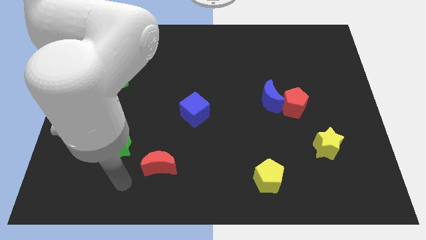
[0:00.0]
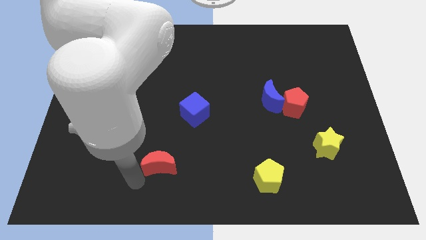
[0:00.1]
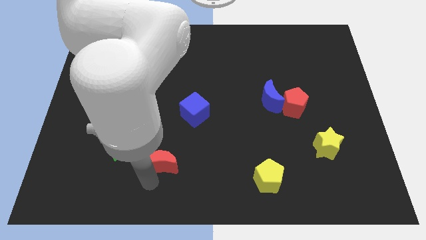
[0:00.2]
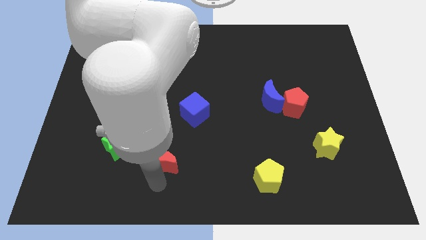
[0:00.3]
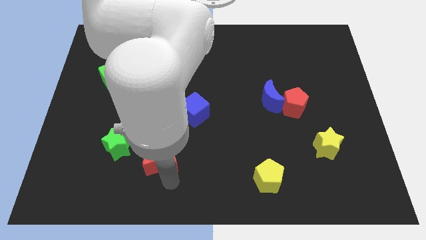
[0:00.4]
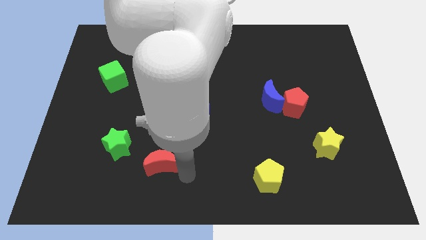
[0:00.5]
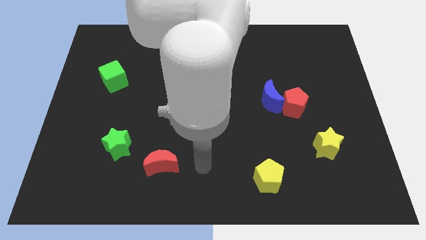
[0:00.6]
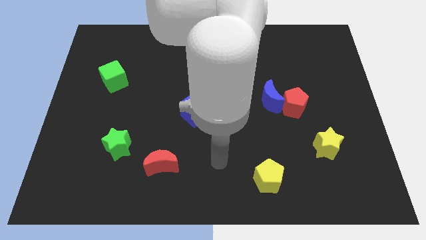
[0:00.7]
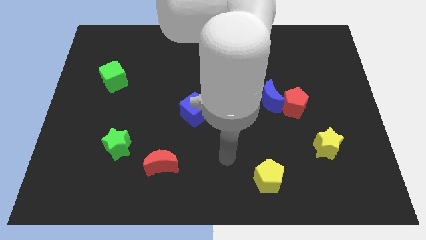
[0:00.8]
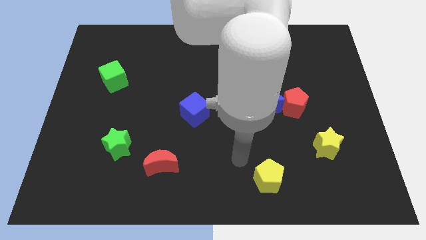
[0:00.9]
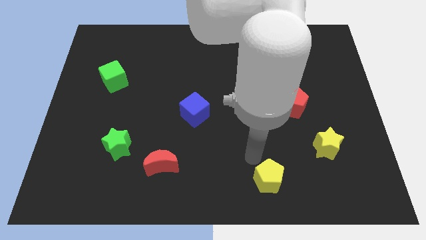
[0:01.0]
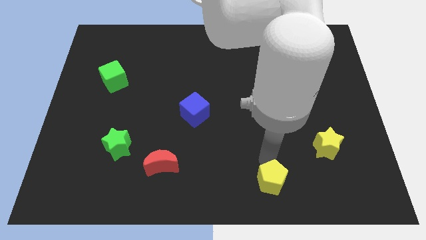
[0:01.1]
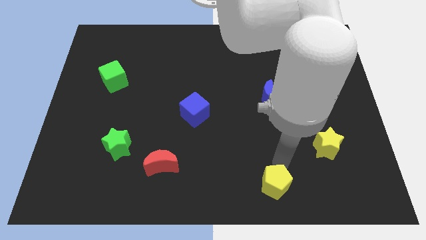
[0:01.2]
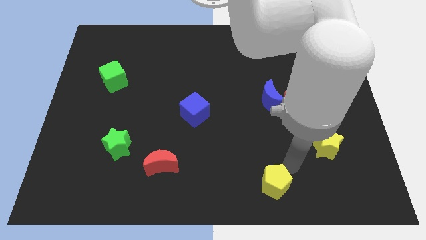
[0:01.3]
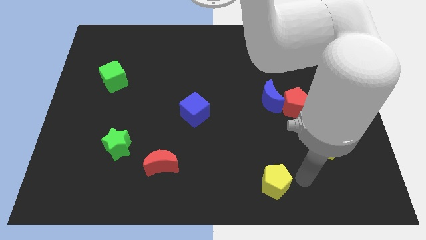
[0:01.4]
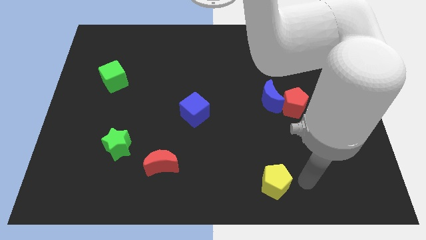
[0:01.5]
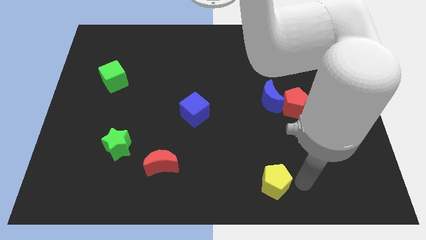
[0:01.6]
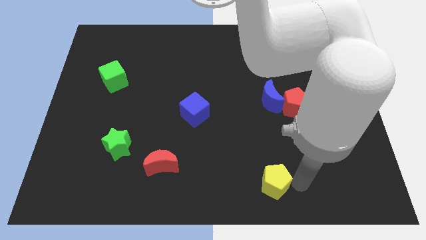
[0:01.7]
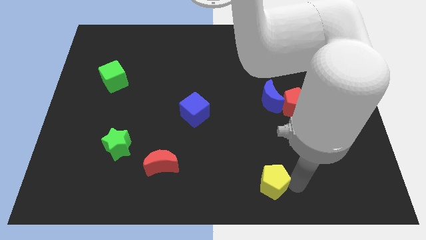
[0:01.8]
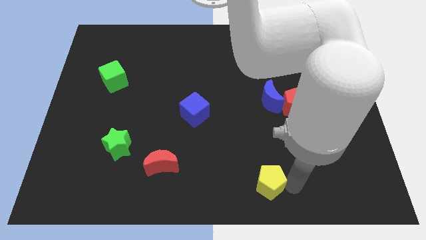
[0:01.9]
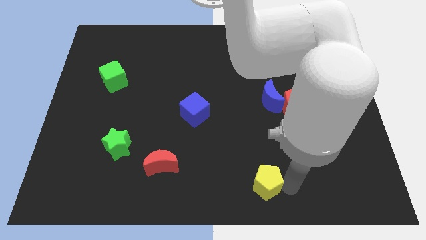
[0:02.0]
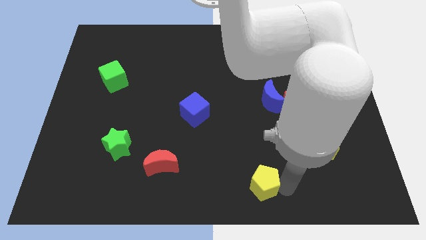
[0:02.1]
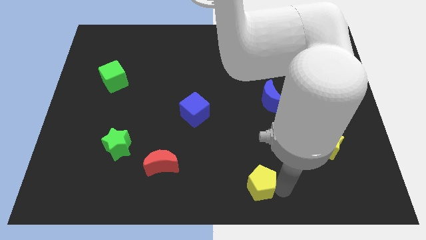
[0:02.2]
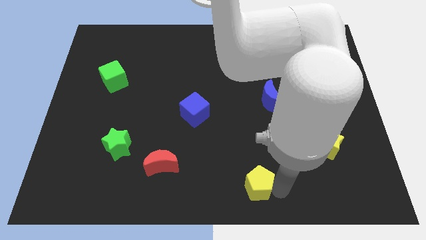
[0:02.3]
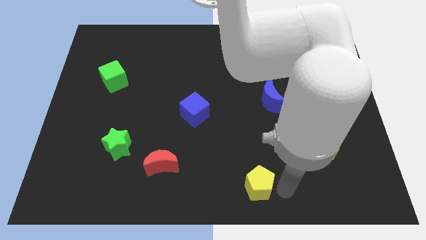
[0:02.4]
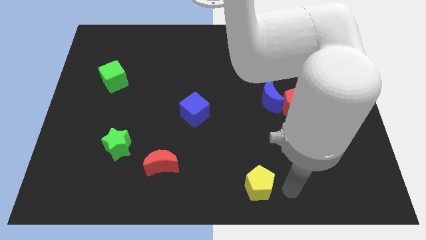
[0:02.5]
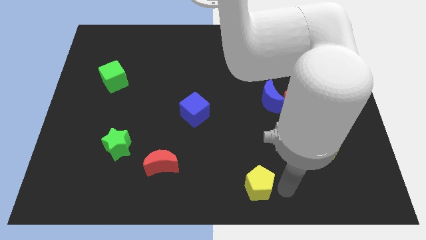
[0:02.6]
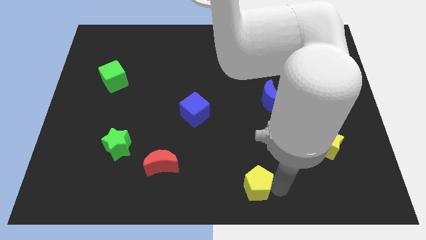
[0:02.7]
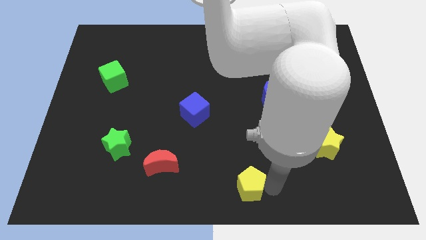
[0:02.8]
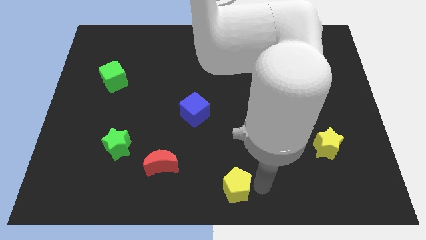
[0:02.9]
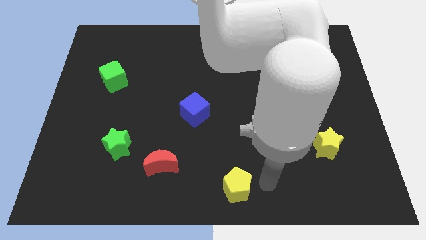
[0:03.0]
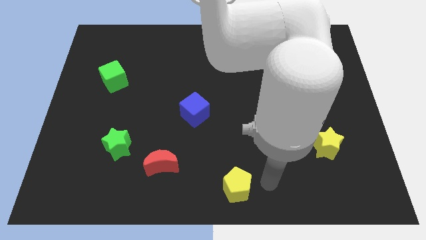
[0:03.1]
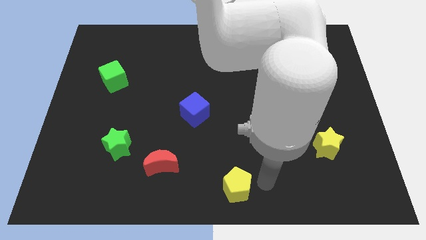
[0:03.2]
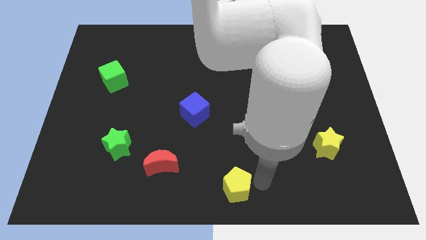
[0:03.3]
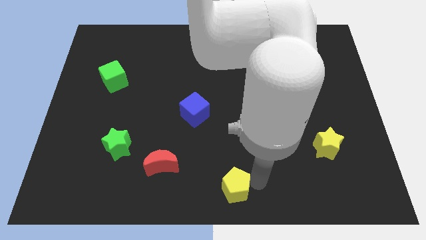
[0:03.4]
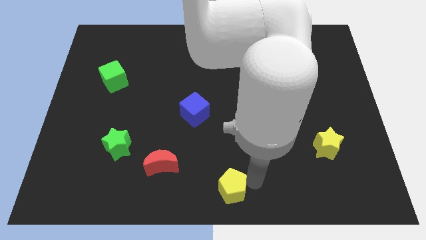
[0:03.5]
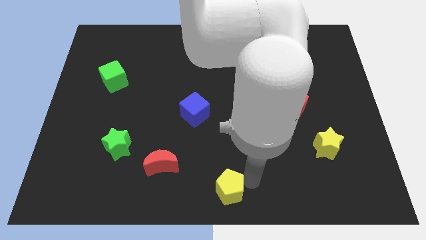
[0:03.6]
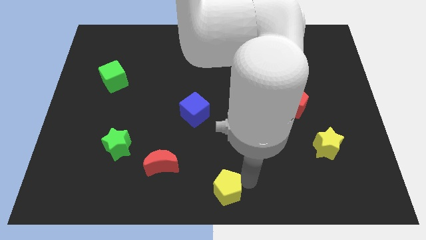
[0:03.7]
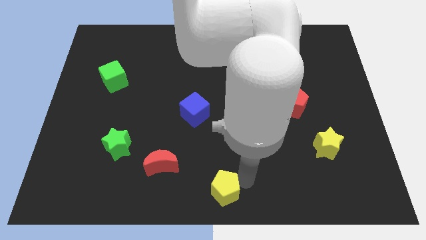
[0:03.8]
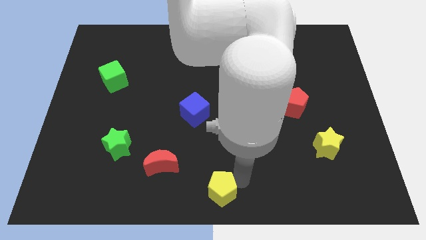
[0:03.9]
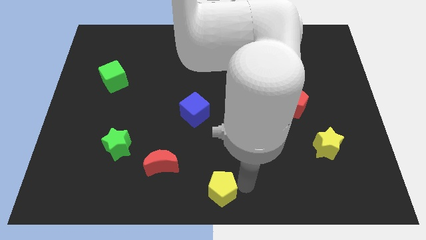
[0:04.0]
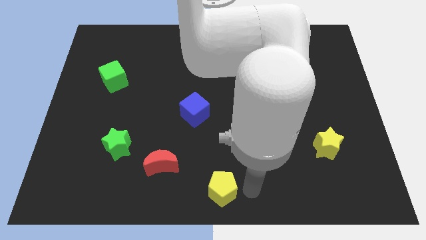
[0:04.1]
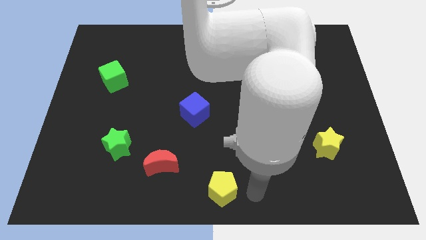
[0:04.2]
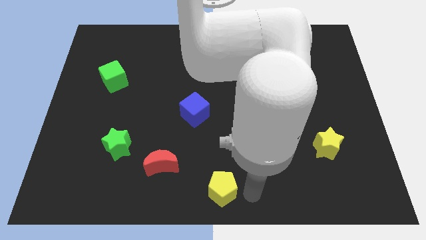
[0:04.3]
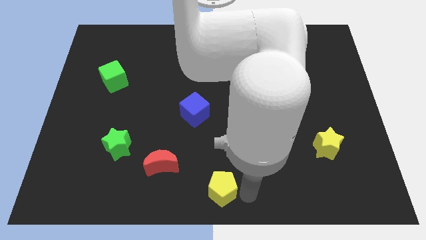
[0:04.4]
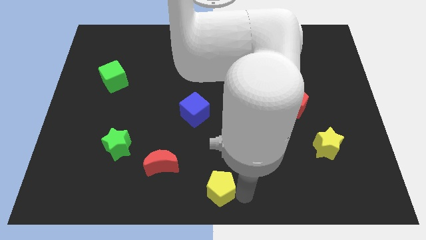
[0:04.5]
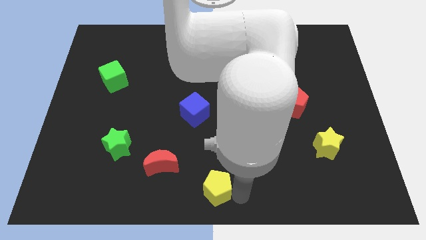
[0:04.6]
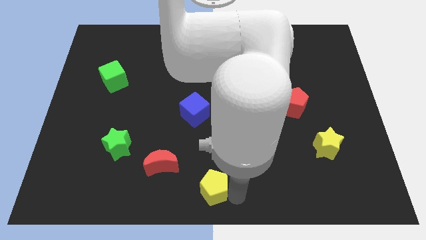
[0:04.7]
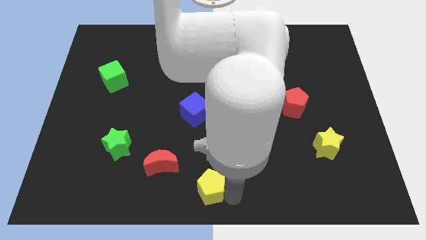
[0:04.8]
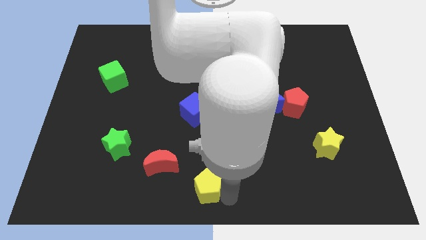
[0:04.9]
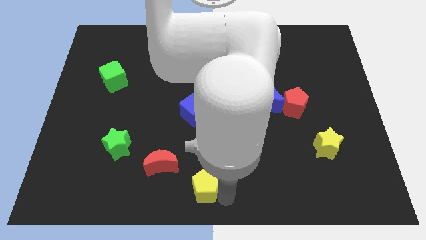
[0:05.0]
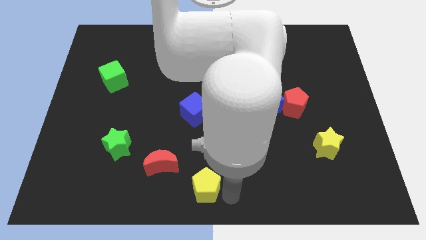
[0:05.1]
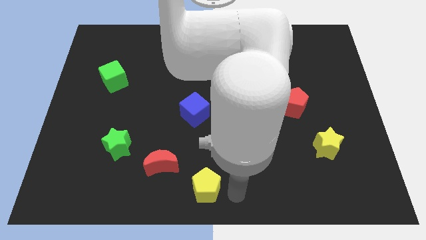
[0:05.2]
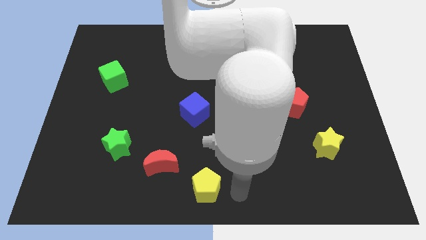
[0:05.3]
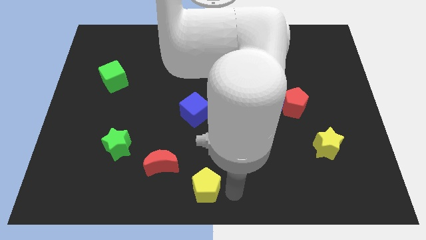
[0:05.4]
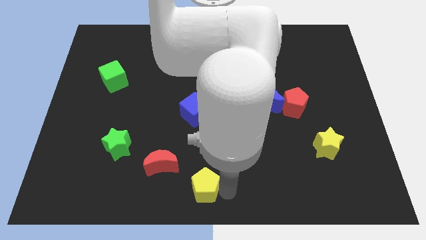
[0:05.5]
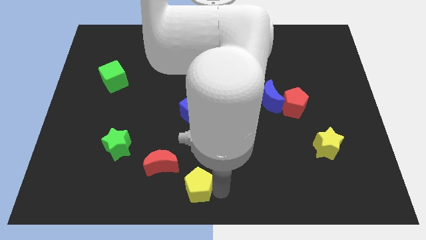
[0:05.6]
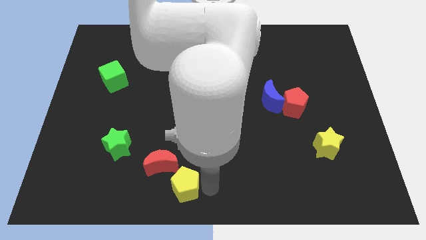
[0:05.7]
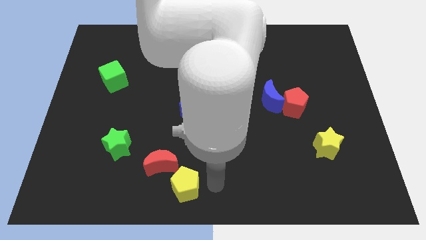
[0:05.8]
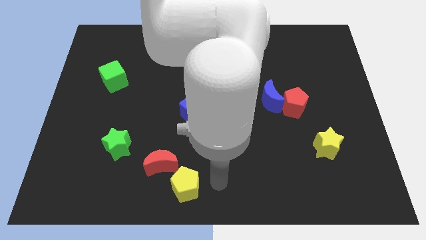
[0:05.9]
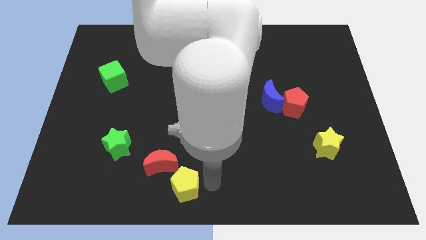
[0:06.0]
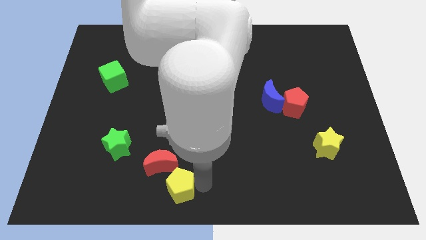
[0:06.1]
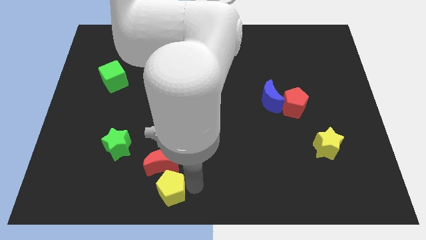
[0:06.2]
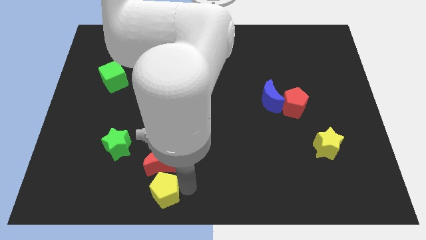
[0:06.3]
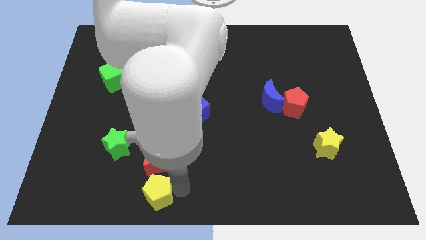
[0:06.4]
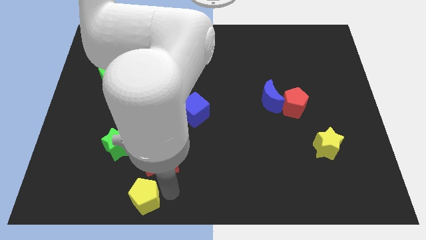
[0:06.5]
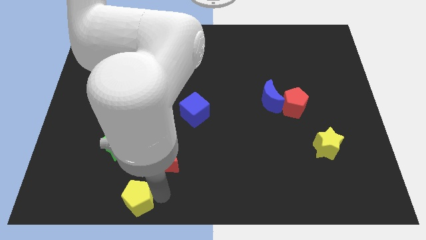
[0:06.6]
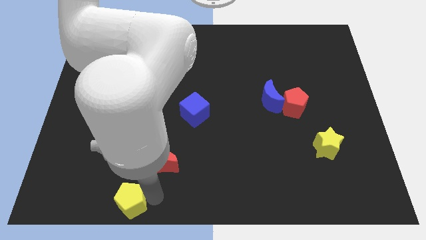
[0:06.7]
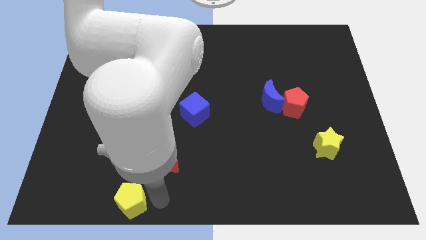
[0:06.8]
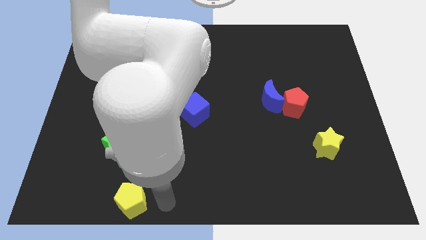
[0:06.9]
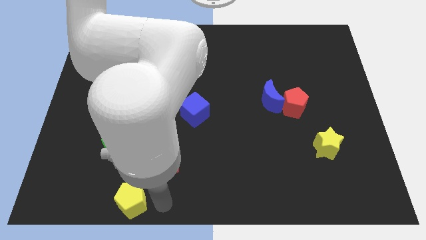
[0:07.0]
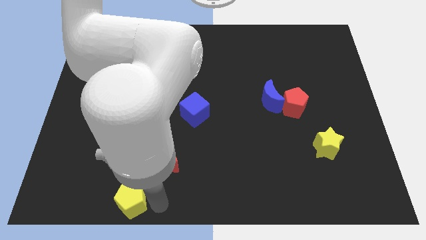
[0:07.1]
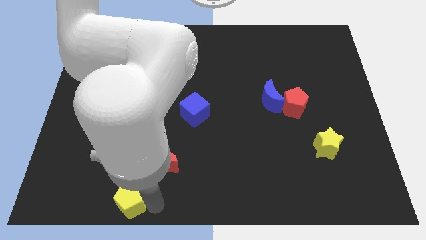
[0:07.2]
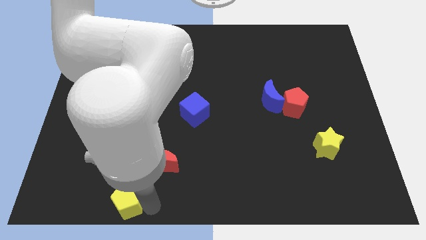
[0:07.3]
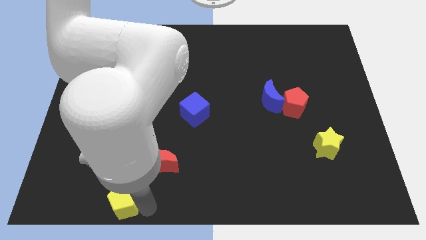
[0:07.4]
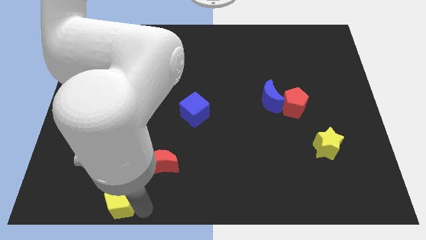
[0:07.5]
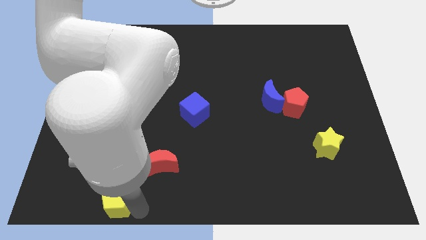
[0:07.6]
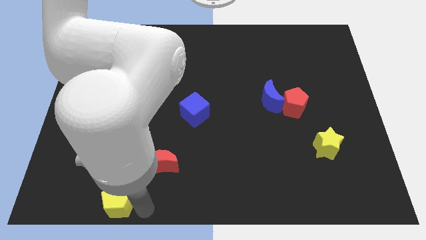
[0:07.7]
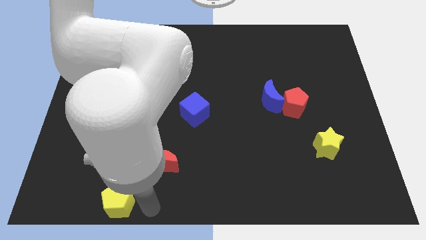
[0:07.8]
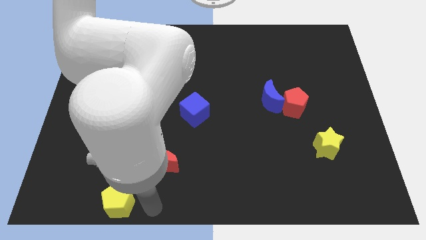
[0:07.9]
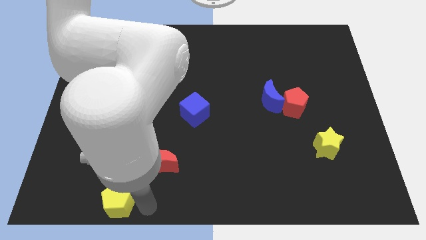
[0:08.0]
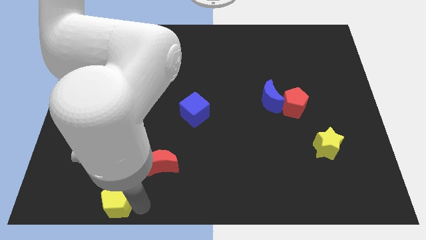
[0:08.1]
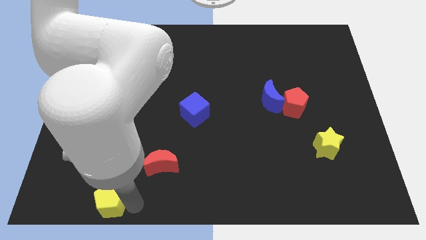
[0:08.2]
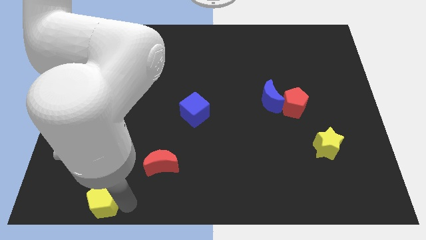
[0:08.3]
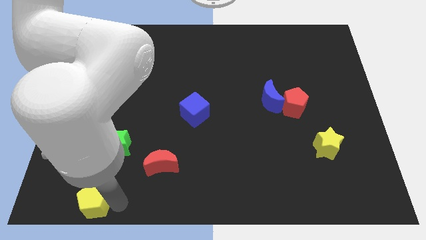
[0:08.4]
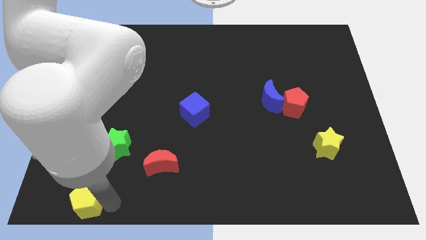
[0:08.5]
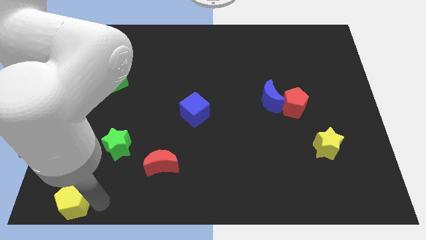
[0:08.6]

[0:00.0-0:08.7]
slide the yellow pentagon to the bottom left
